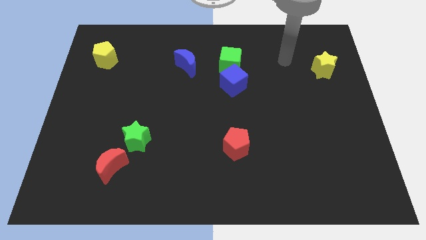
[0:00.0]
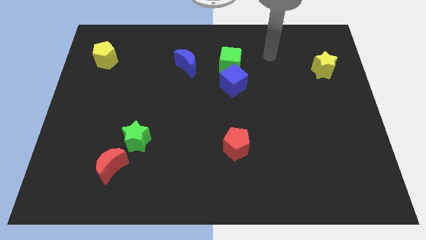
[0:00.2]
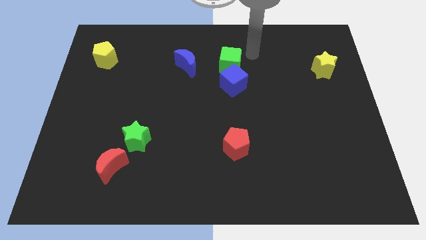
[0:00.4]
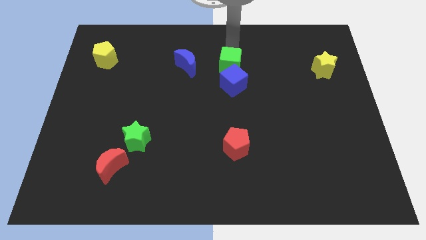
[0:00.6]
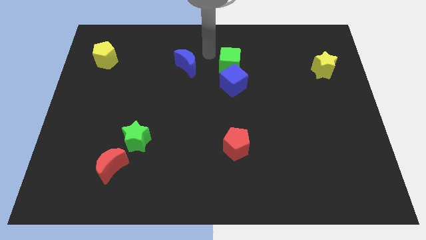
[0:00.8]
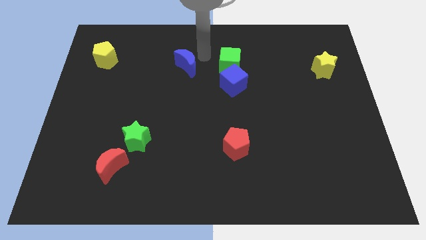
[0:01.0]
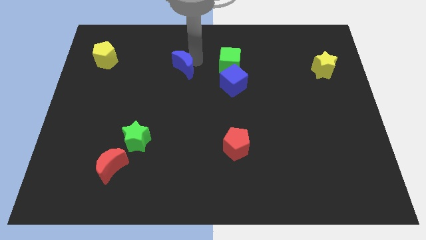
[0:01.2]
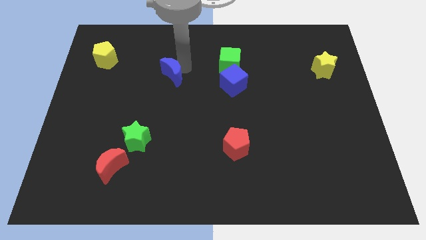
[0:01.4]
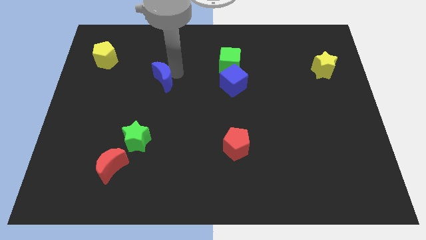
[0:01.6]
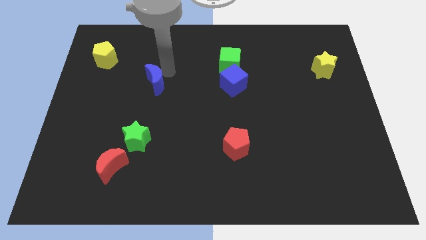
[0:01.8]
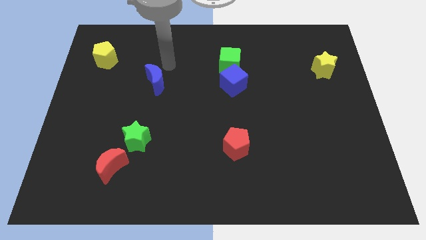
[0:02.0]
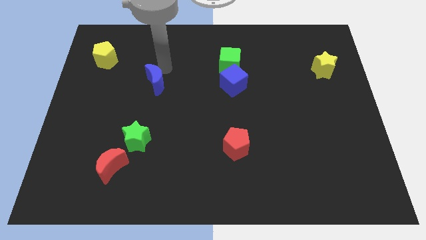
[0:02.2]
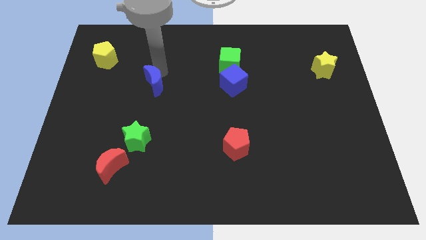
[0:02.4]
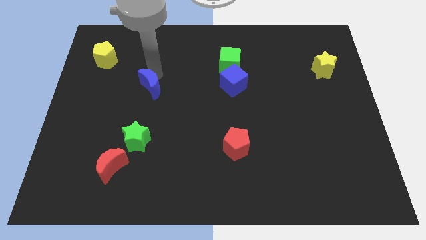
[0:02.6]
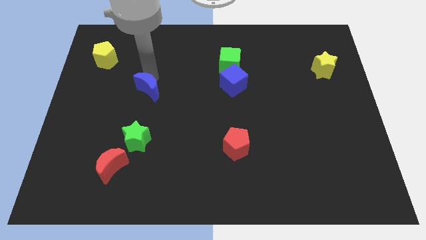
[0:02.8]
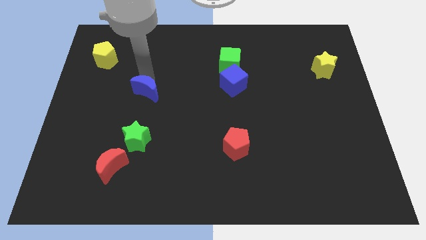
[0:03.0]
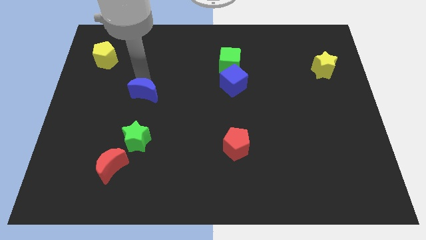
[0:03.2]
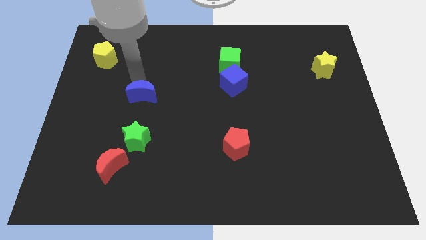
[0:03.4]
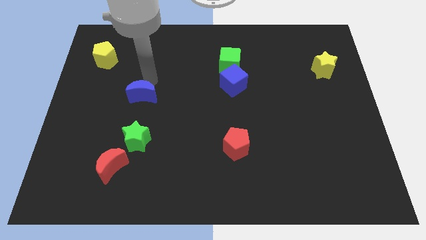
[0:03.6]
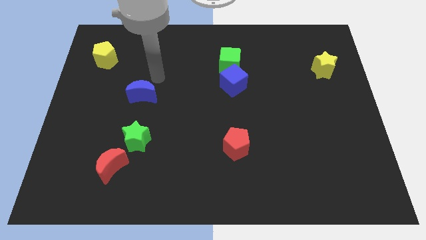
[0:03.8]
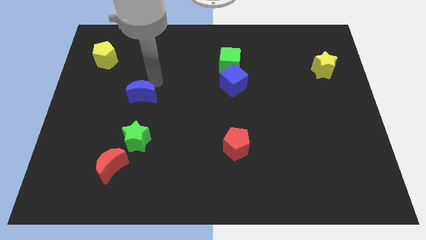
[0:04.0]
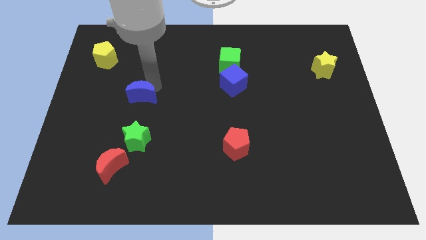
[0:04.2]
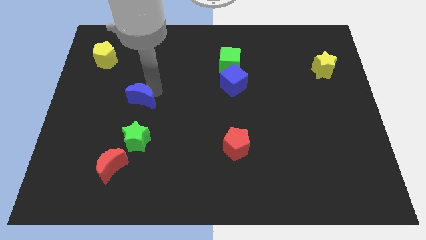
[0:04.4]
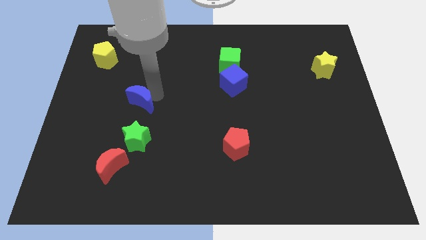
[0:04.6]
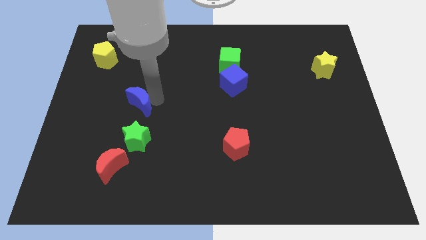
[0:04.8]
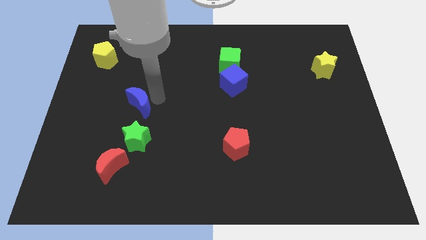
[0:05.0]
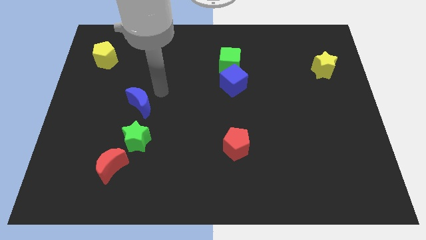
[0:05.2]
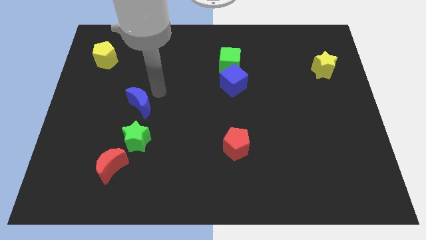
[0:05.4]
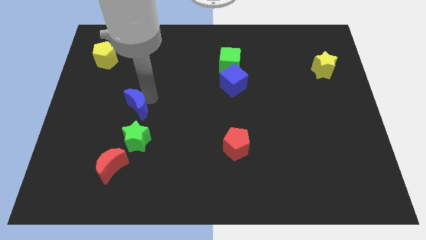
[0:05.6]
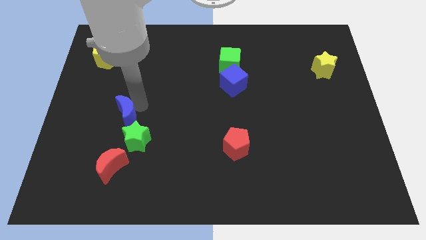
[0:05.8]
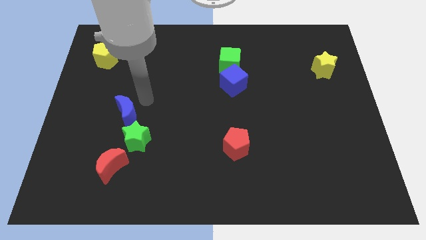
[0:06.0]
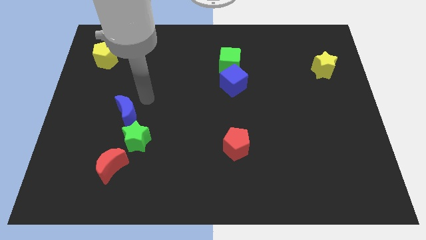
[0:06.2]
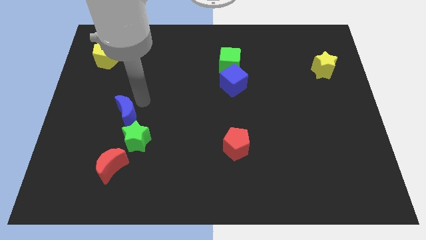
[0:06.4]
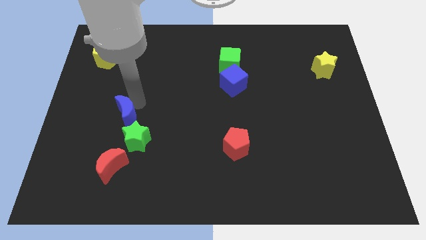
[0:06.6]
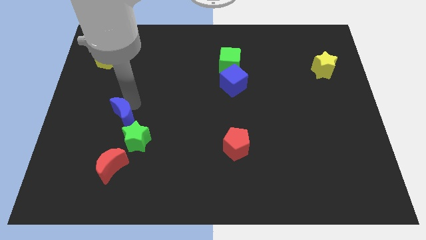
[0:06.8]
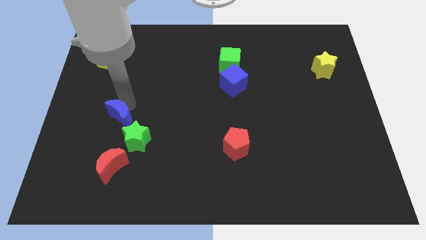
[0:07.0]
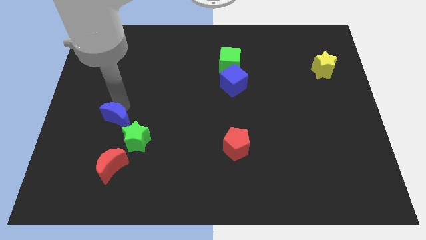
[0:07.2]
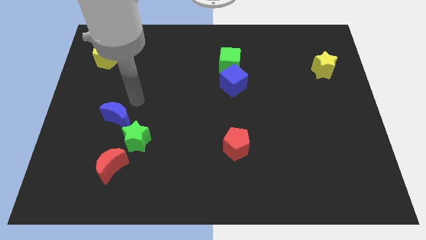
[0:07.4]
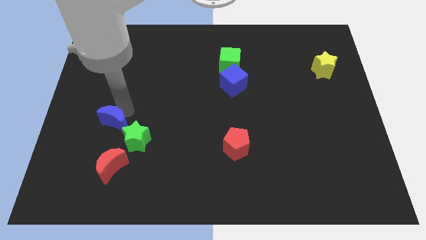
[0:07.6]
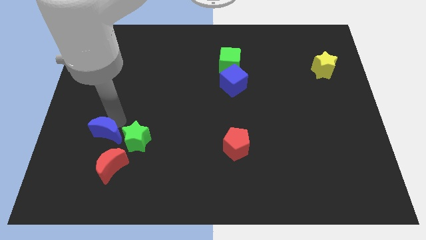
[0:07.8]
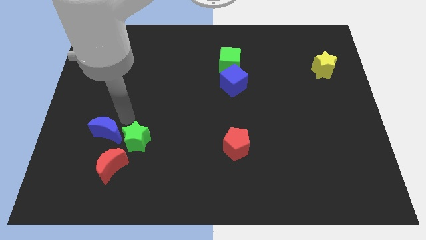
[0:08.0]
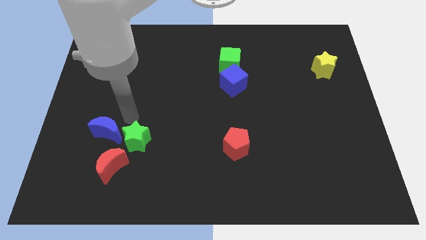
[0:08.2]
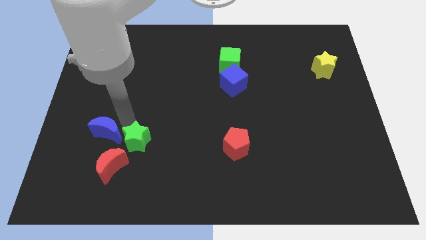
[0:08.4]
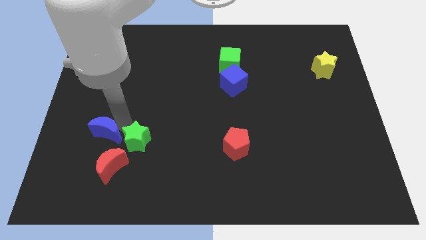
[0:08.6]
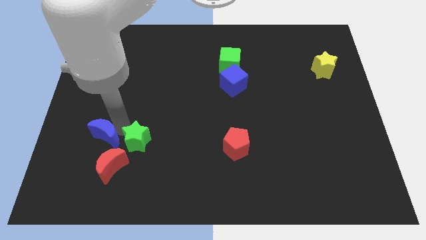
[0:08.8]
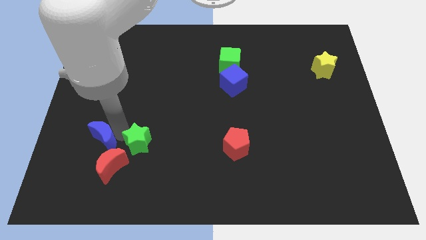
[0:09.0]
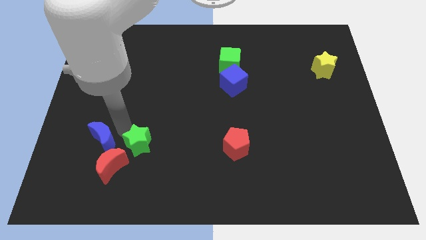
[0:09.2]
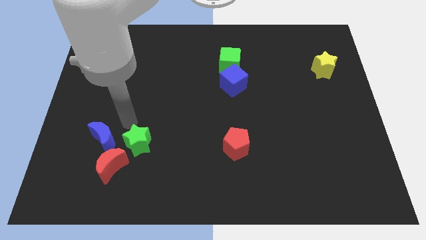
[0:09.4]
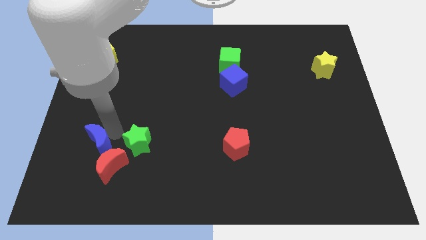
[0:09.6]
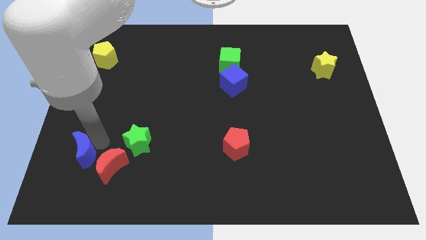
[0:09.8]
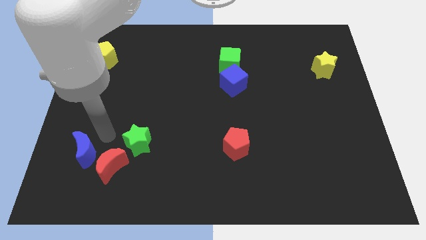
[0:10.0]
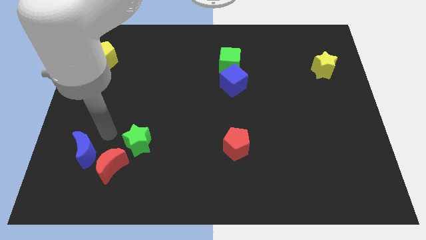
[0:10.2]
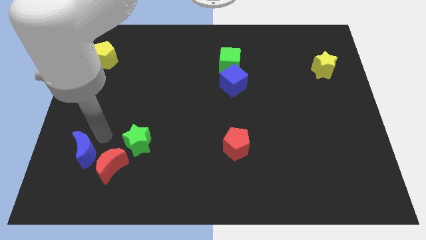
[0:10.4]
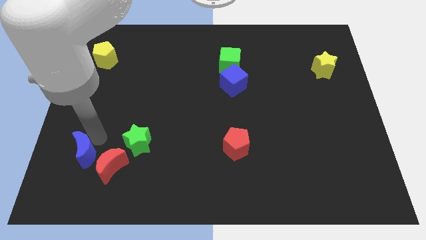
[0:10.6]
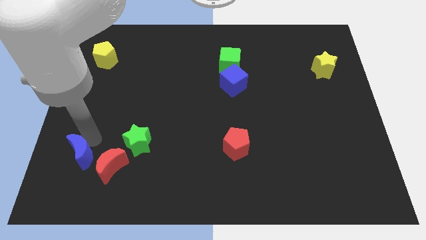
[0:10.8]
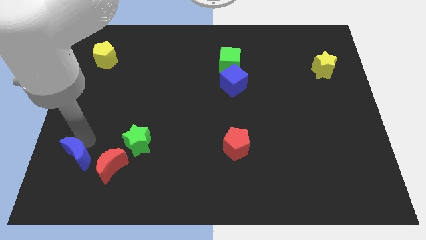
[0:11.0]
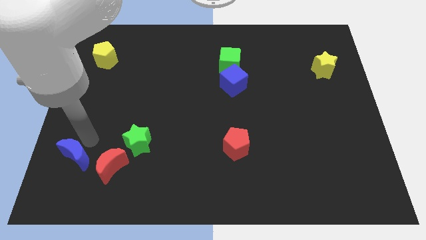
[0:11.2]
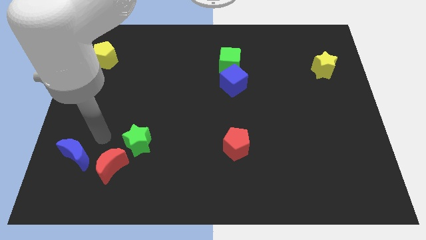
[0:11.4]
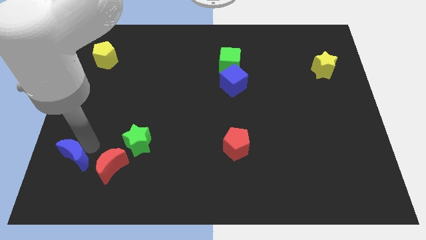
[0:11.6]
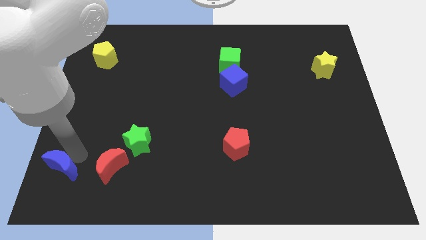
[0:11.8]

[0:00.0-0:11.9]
push the blue moon to the lower left corner

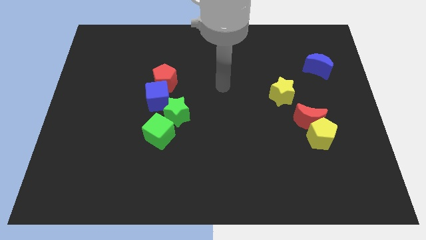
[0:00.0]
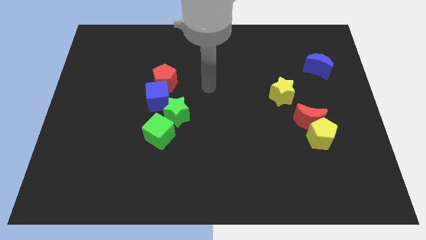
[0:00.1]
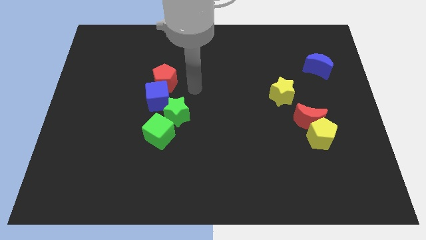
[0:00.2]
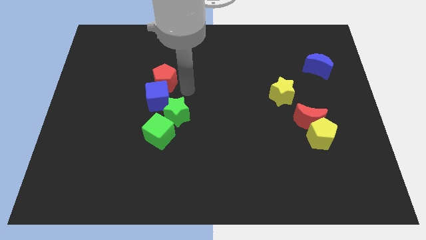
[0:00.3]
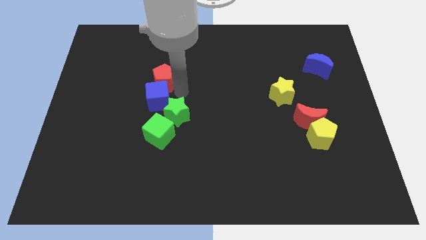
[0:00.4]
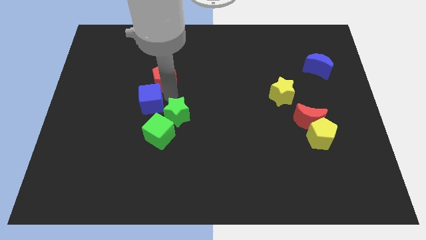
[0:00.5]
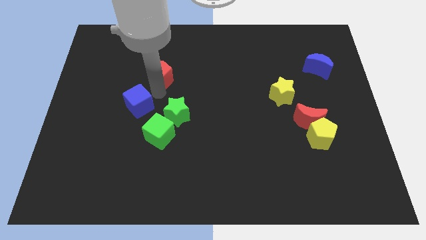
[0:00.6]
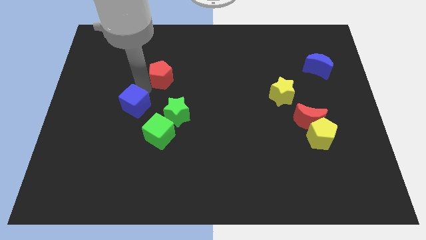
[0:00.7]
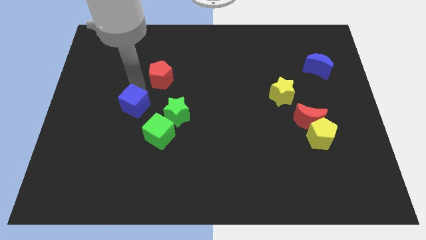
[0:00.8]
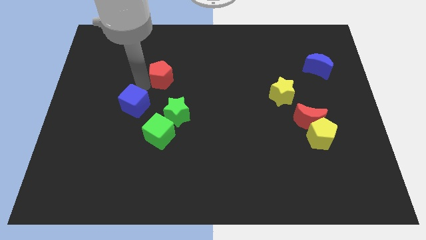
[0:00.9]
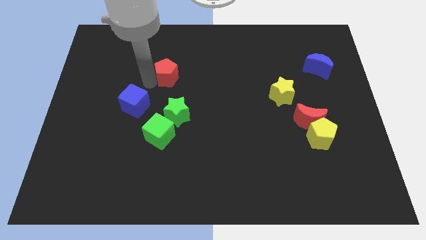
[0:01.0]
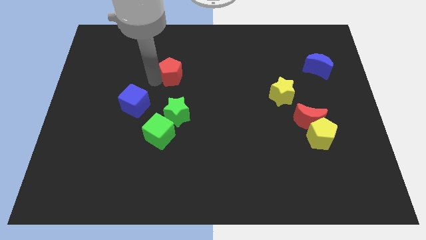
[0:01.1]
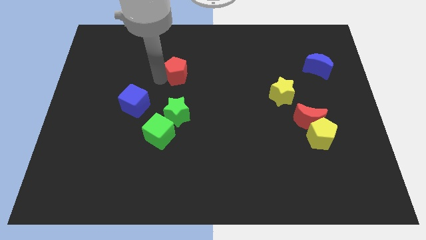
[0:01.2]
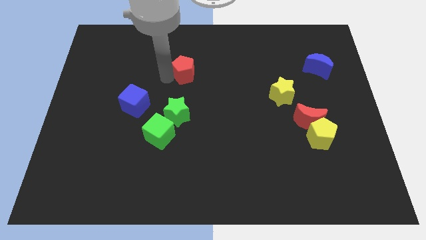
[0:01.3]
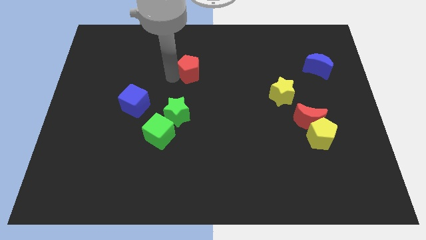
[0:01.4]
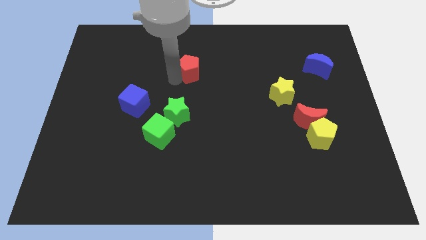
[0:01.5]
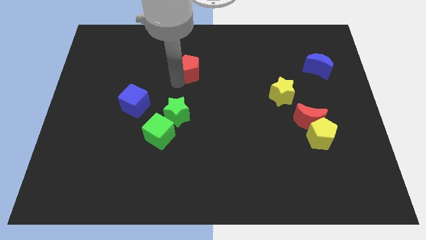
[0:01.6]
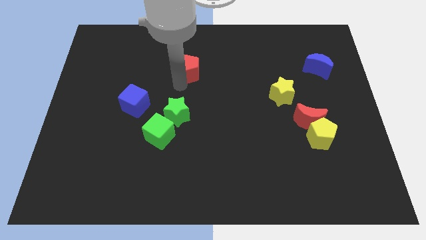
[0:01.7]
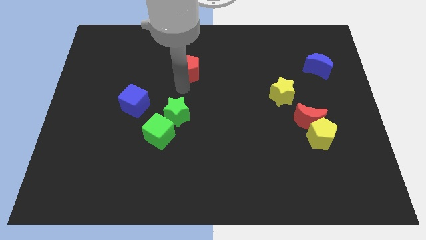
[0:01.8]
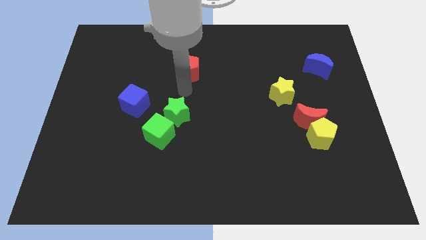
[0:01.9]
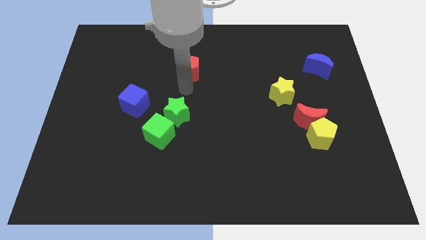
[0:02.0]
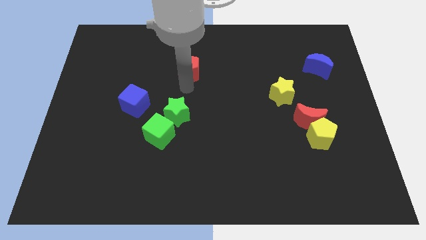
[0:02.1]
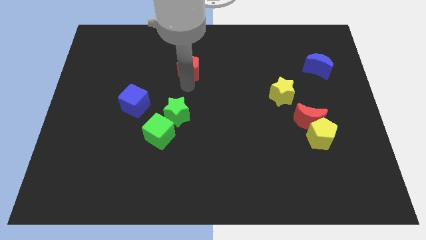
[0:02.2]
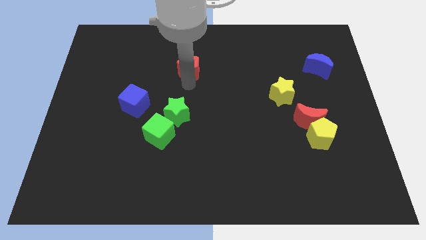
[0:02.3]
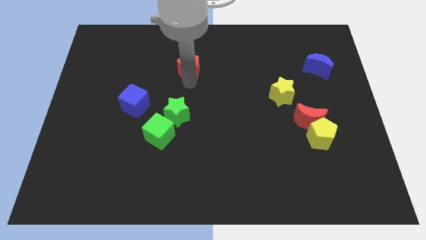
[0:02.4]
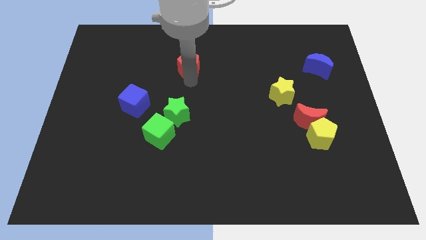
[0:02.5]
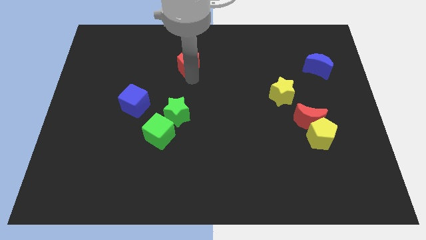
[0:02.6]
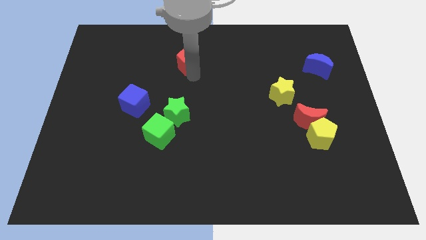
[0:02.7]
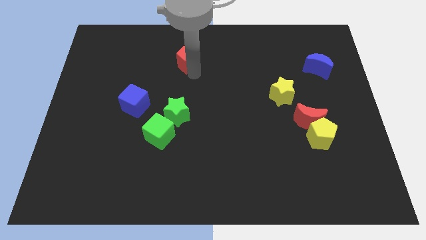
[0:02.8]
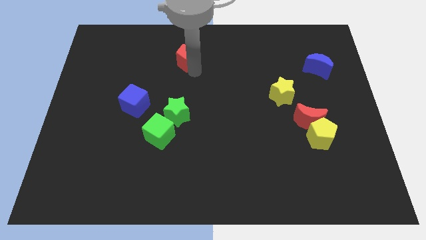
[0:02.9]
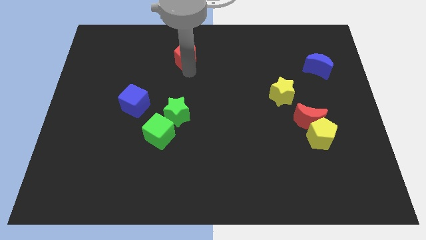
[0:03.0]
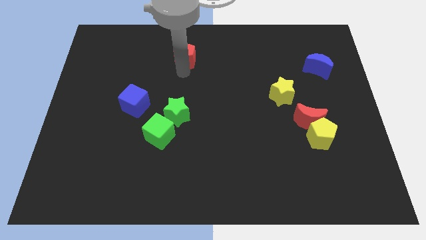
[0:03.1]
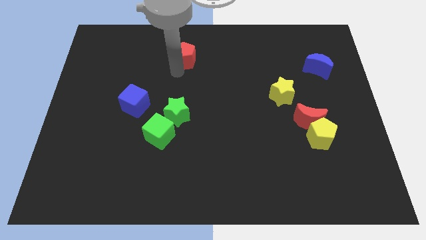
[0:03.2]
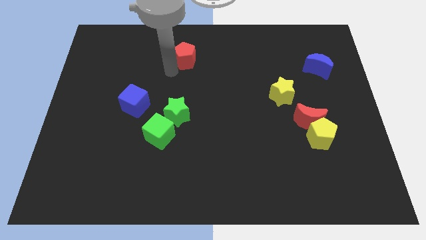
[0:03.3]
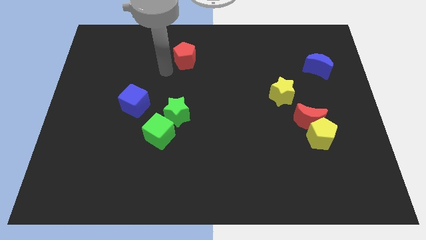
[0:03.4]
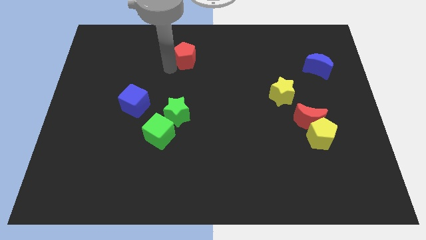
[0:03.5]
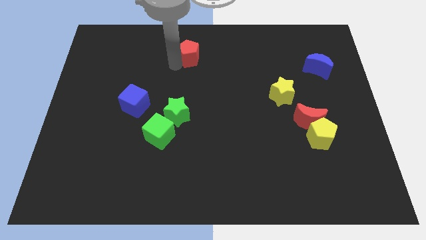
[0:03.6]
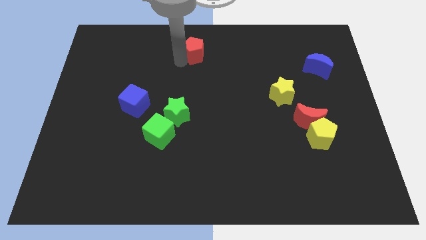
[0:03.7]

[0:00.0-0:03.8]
put the red pentagon to the top side
